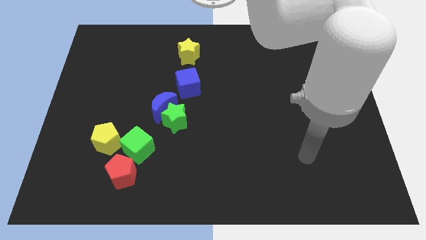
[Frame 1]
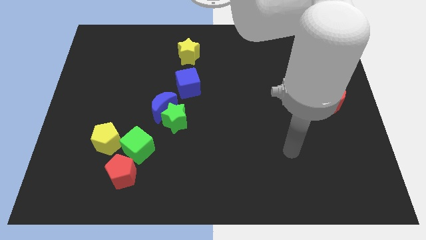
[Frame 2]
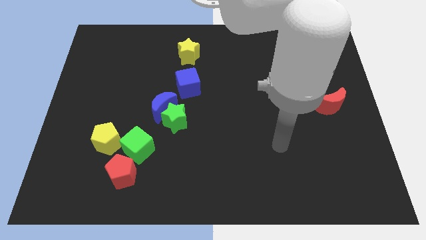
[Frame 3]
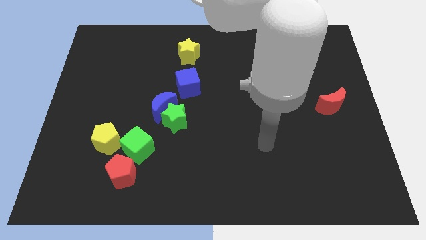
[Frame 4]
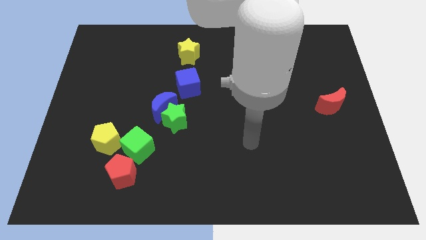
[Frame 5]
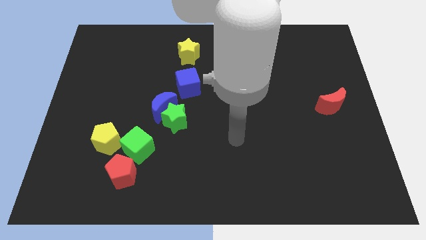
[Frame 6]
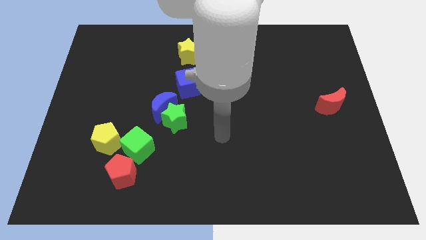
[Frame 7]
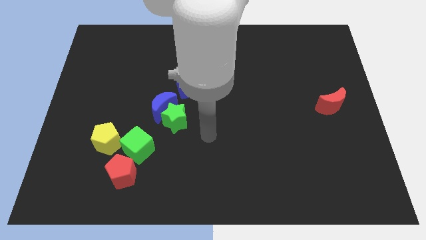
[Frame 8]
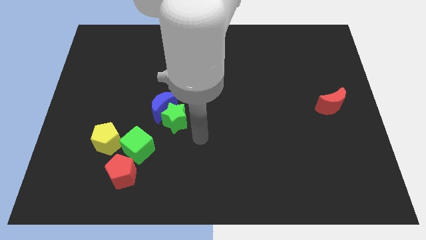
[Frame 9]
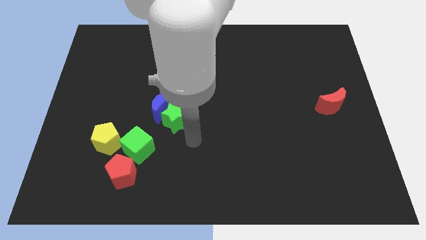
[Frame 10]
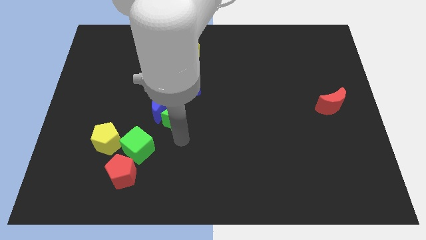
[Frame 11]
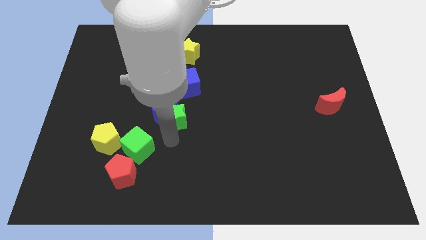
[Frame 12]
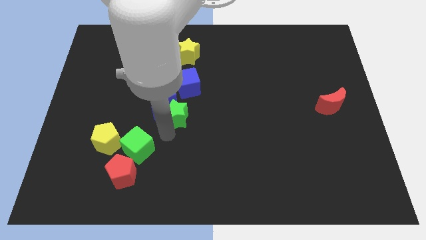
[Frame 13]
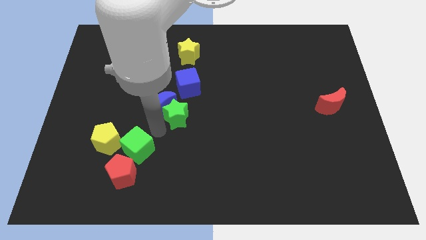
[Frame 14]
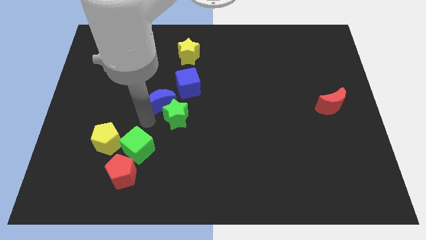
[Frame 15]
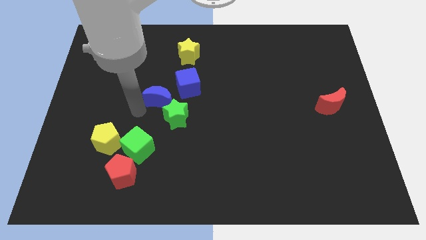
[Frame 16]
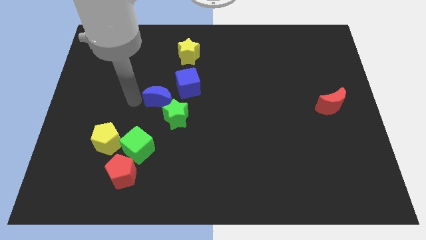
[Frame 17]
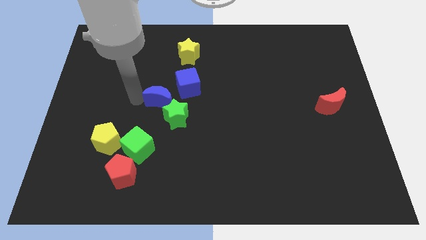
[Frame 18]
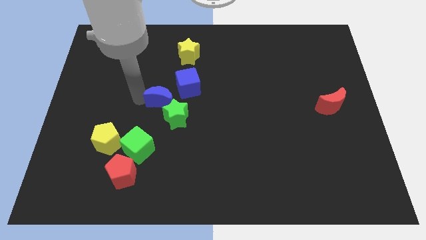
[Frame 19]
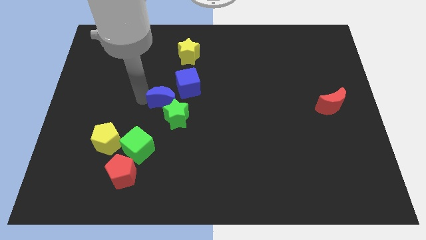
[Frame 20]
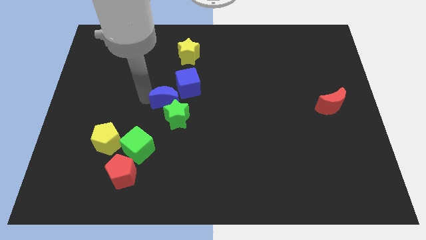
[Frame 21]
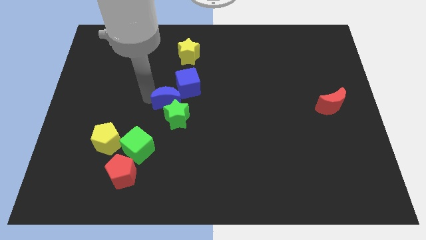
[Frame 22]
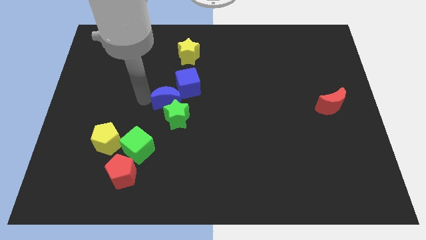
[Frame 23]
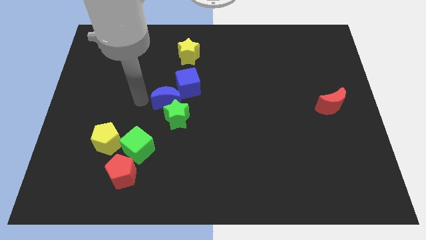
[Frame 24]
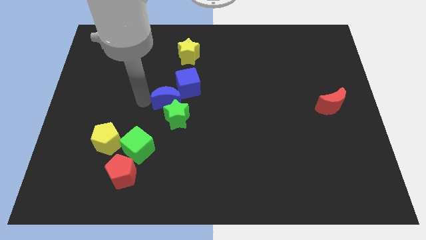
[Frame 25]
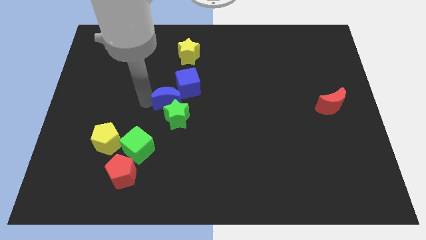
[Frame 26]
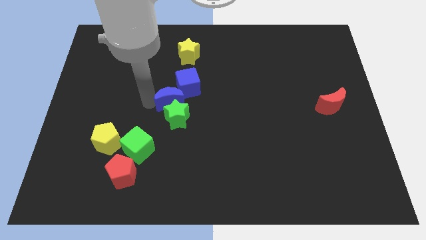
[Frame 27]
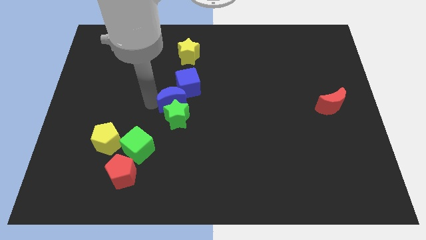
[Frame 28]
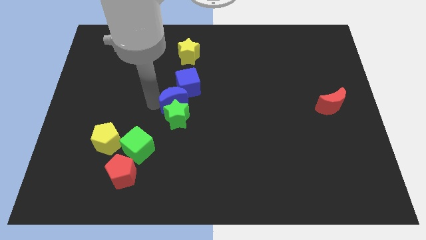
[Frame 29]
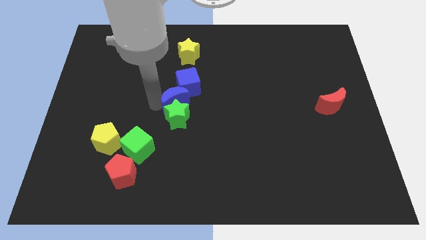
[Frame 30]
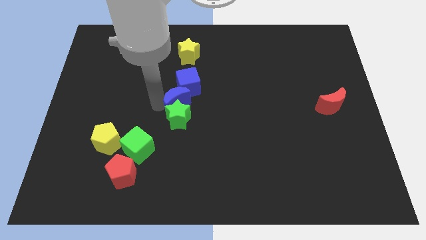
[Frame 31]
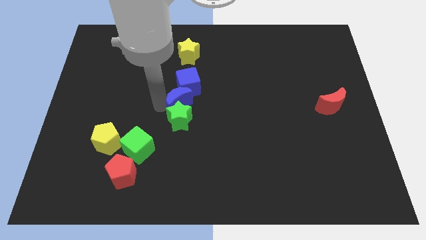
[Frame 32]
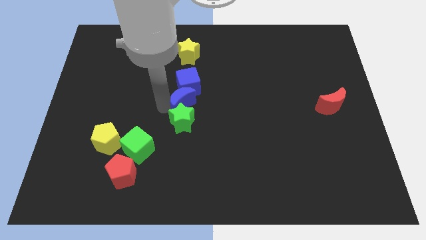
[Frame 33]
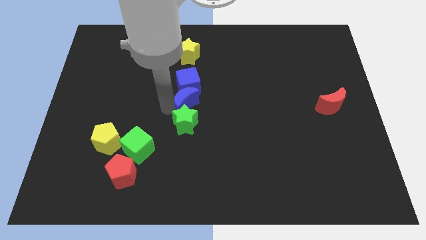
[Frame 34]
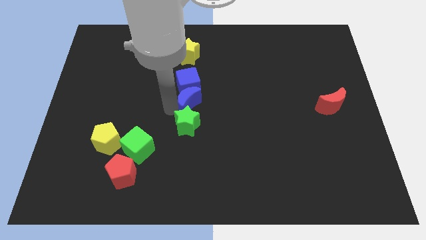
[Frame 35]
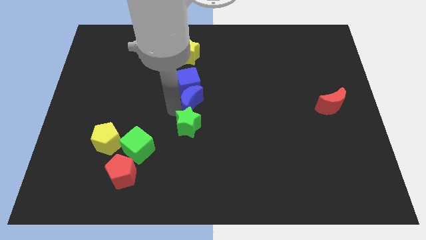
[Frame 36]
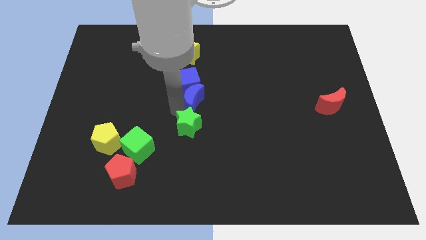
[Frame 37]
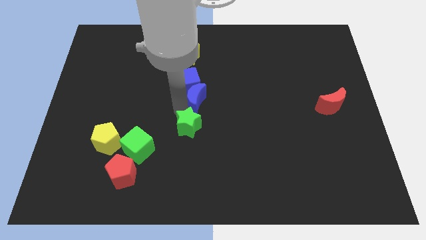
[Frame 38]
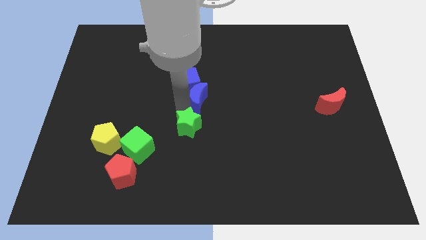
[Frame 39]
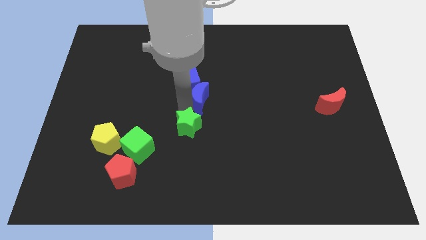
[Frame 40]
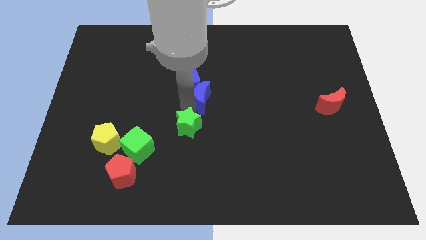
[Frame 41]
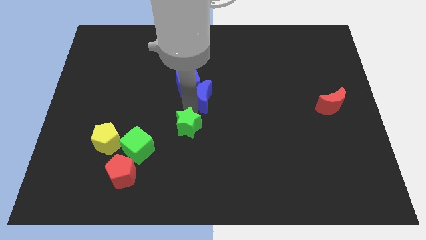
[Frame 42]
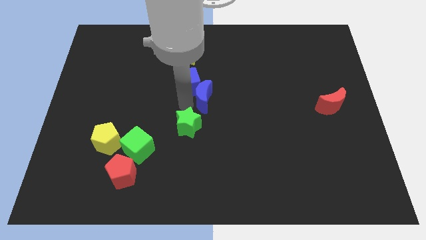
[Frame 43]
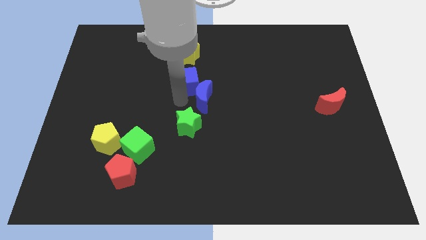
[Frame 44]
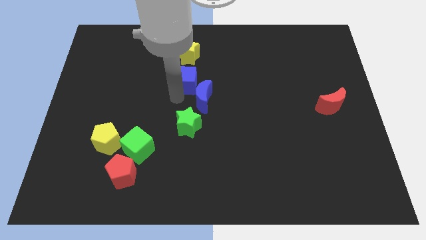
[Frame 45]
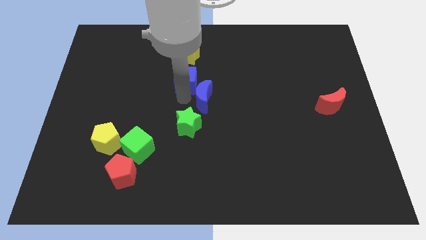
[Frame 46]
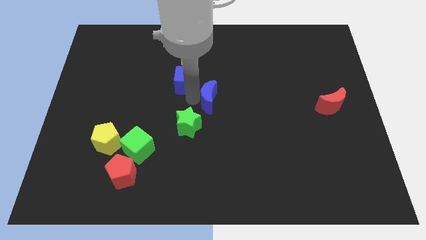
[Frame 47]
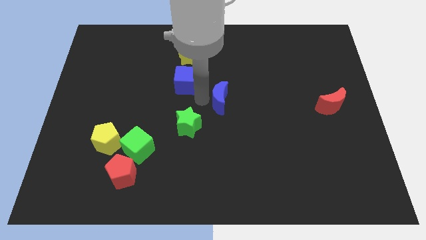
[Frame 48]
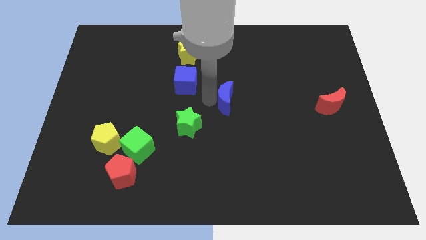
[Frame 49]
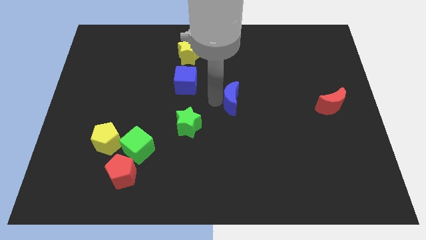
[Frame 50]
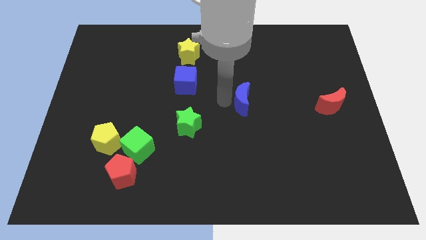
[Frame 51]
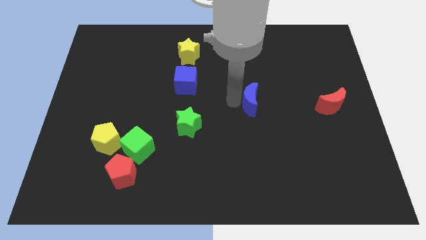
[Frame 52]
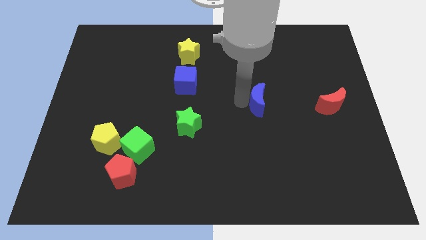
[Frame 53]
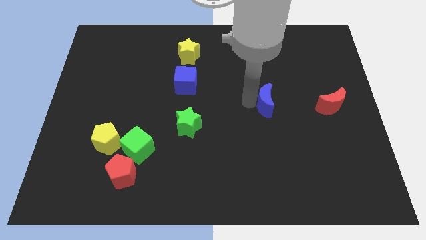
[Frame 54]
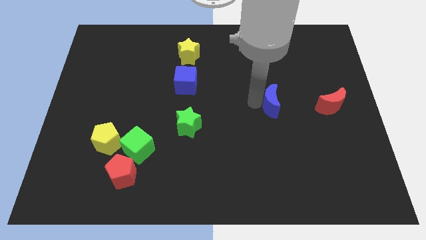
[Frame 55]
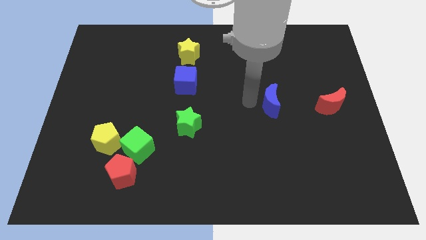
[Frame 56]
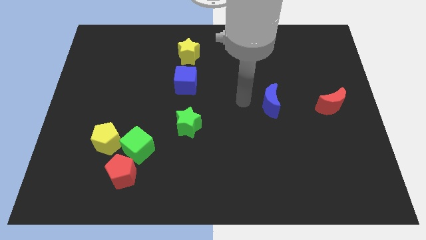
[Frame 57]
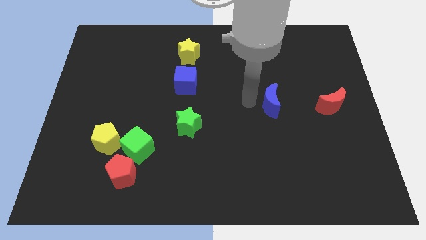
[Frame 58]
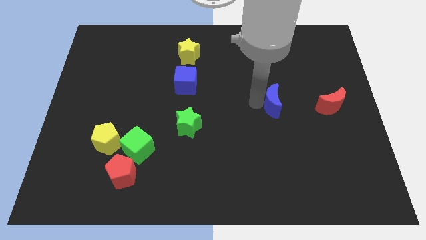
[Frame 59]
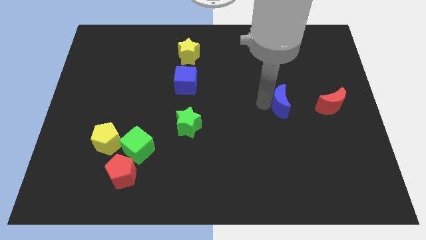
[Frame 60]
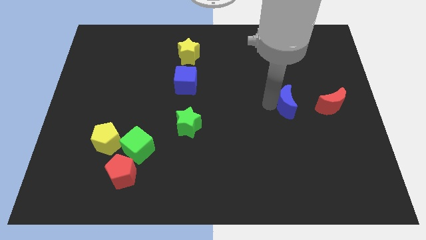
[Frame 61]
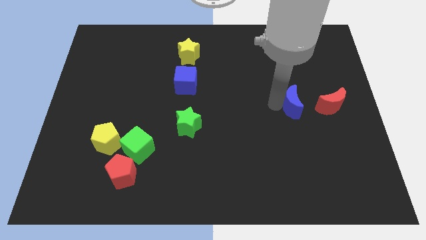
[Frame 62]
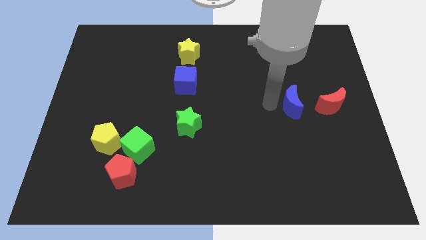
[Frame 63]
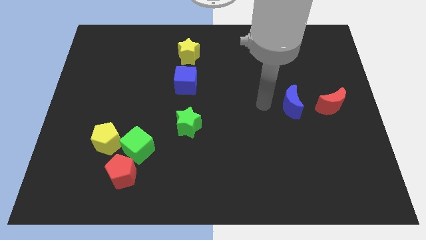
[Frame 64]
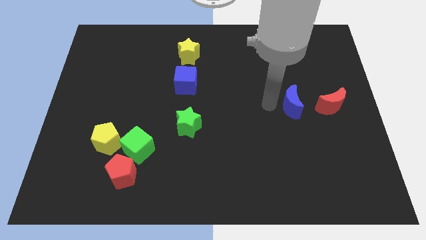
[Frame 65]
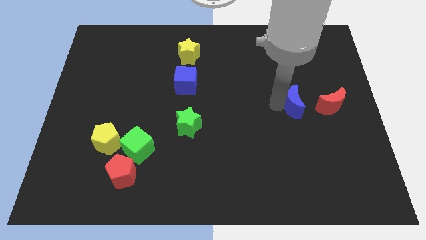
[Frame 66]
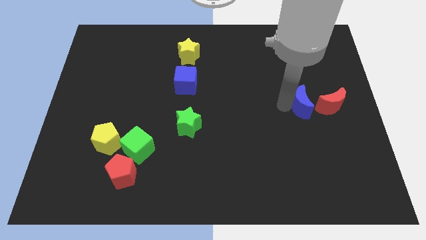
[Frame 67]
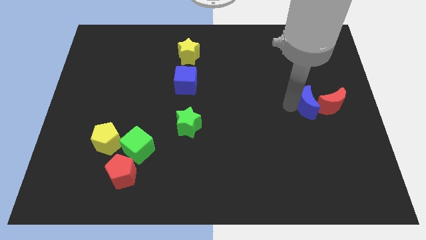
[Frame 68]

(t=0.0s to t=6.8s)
push the blue moon next to the red moon
